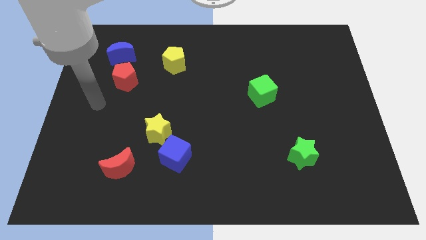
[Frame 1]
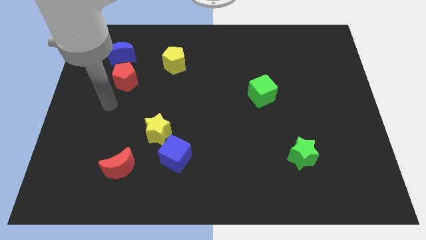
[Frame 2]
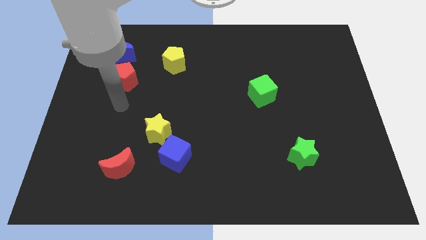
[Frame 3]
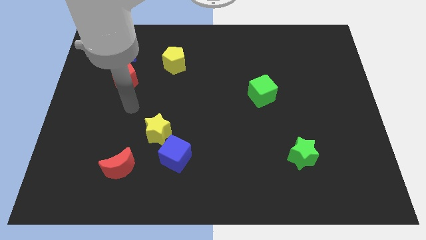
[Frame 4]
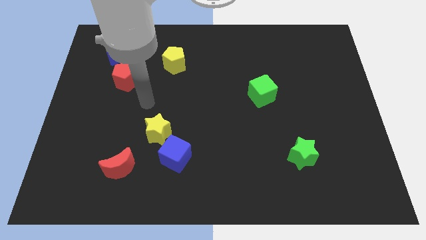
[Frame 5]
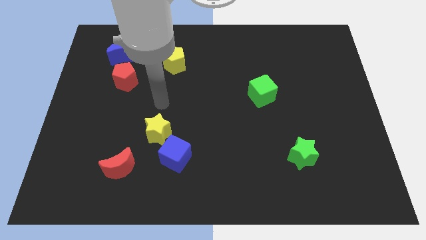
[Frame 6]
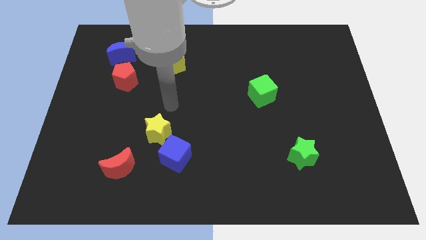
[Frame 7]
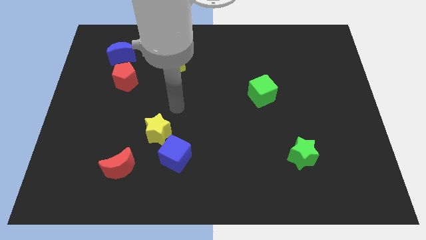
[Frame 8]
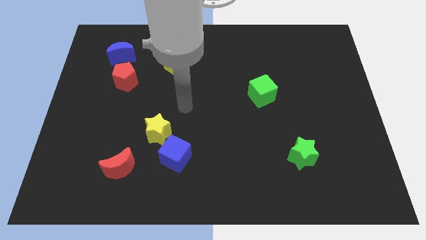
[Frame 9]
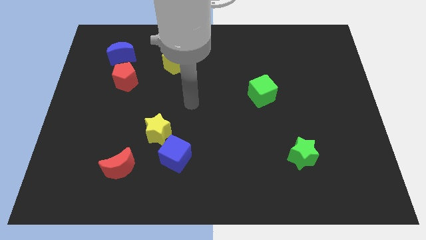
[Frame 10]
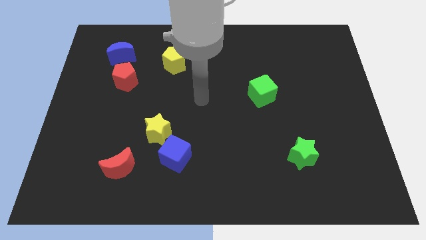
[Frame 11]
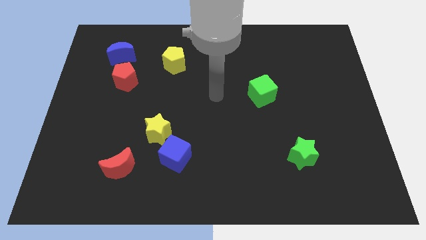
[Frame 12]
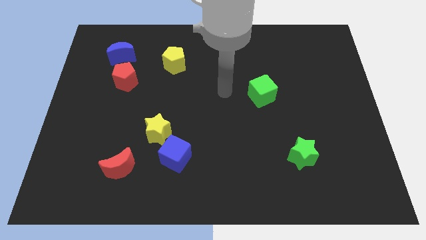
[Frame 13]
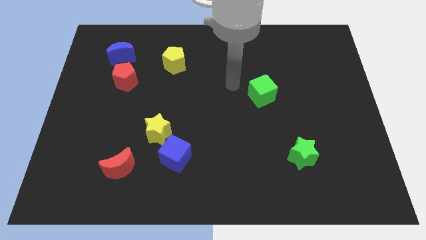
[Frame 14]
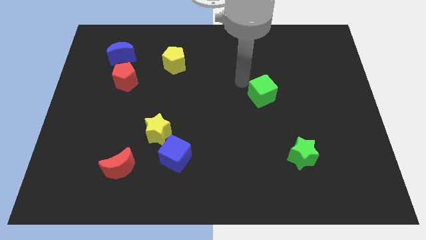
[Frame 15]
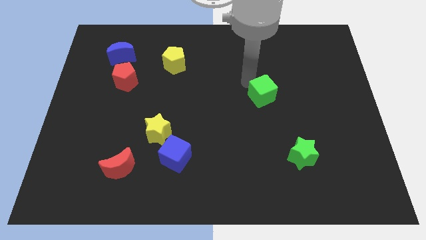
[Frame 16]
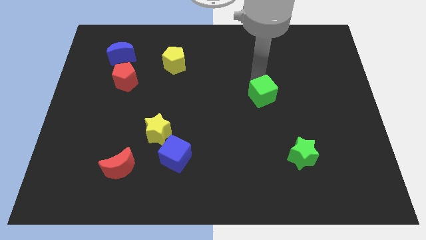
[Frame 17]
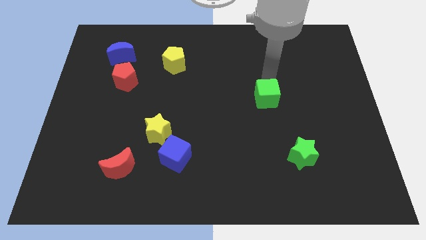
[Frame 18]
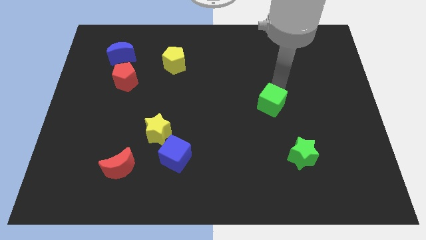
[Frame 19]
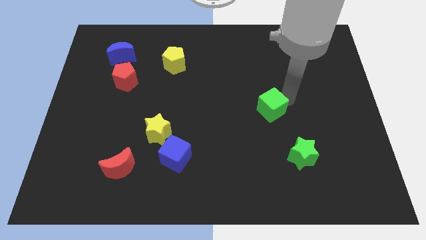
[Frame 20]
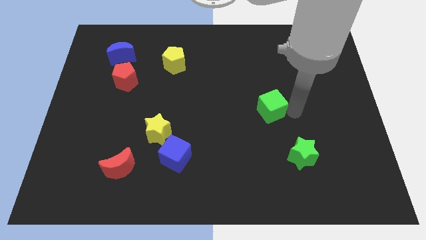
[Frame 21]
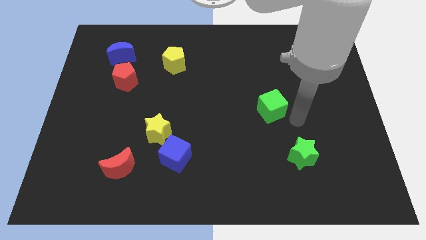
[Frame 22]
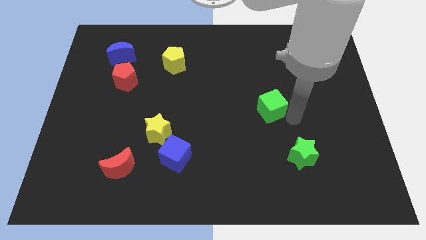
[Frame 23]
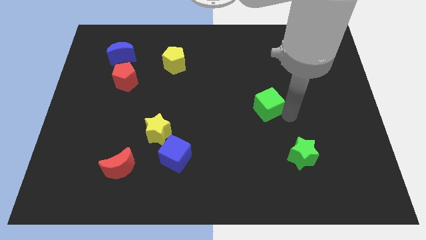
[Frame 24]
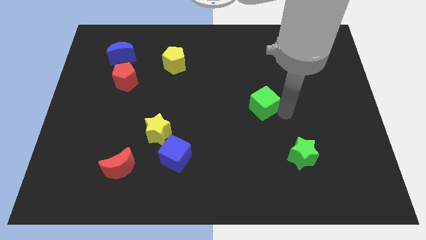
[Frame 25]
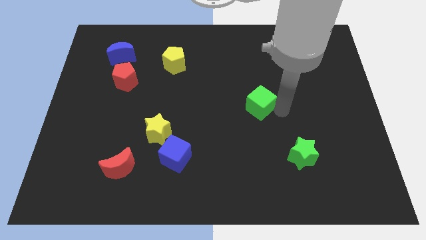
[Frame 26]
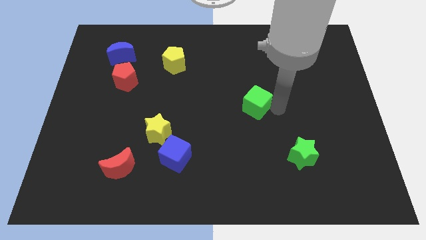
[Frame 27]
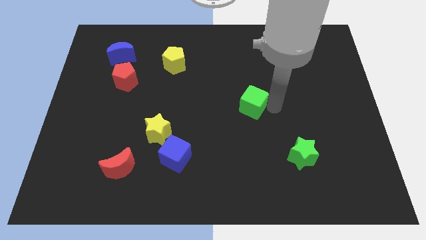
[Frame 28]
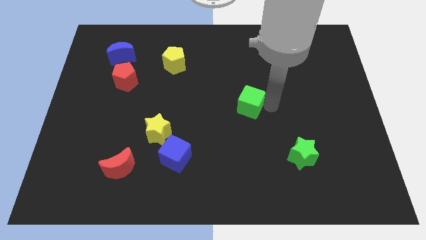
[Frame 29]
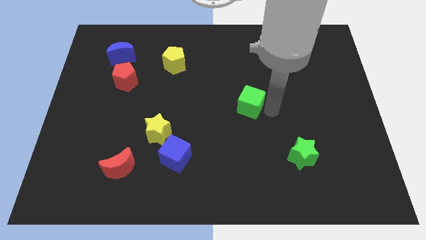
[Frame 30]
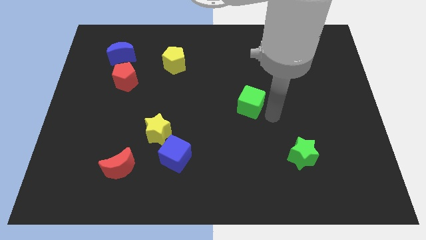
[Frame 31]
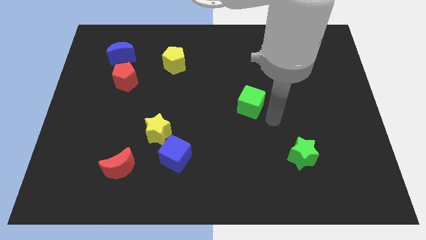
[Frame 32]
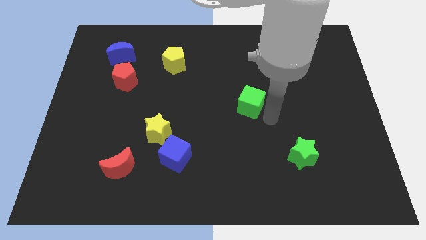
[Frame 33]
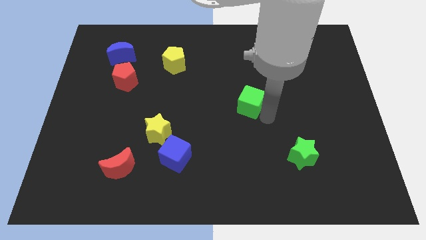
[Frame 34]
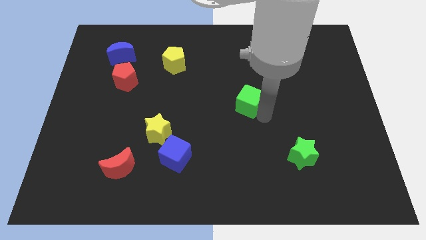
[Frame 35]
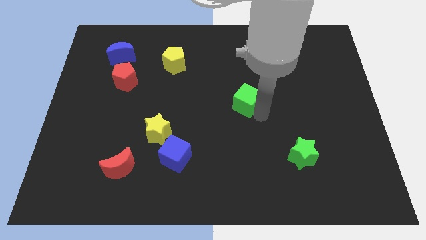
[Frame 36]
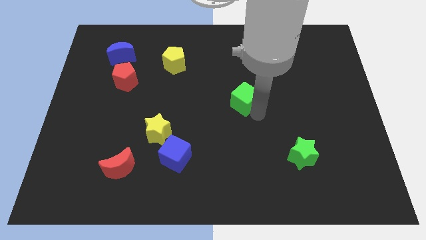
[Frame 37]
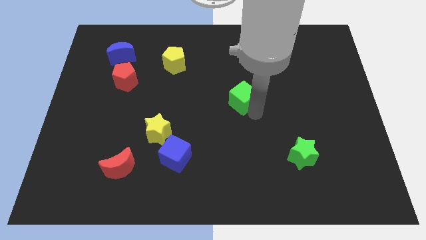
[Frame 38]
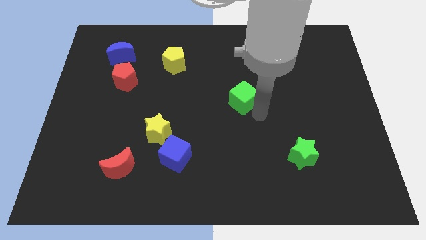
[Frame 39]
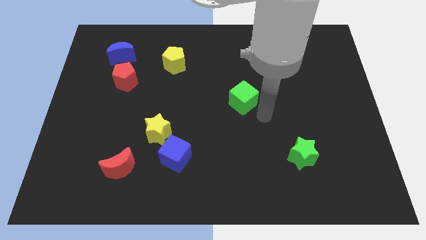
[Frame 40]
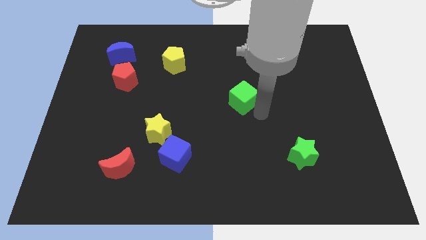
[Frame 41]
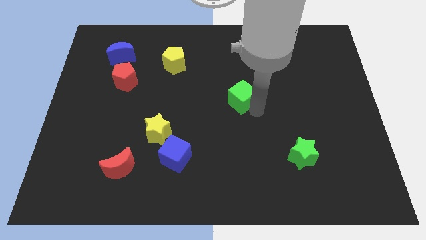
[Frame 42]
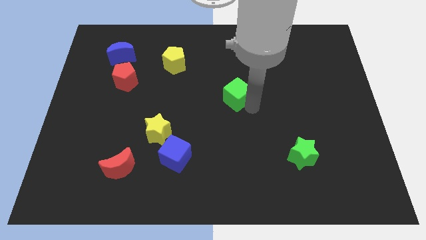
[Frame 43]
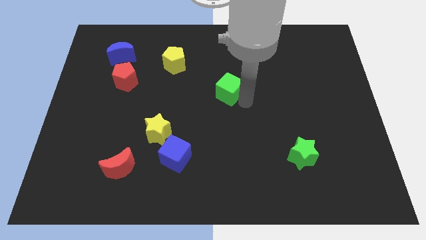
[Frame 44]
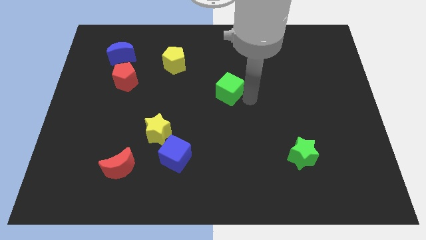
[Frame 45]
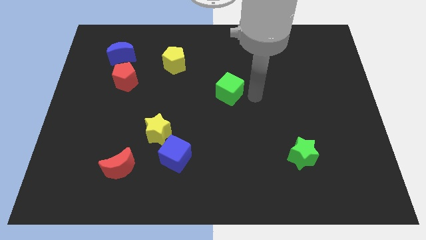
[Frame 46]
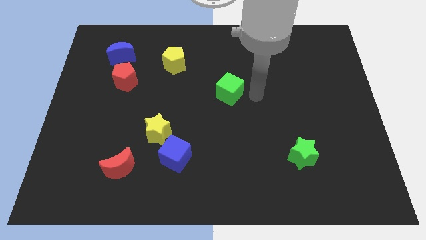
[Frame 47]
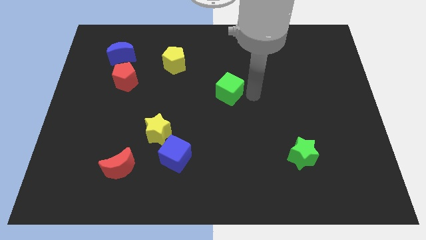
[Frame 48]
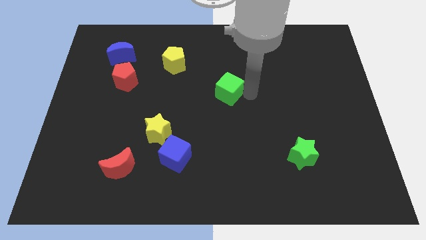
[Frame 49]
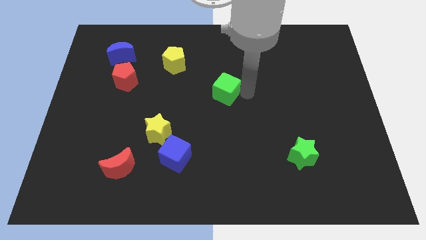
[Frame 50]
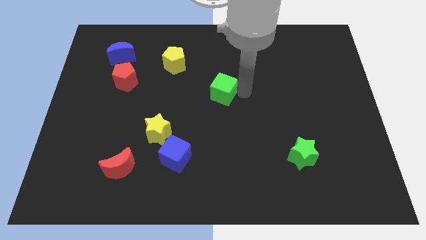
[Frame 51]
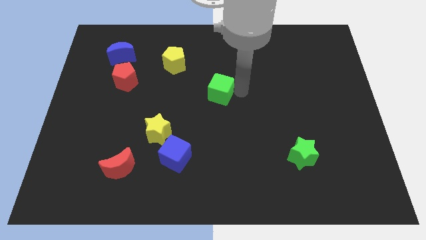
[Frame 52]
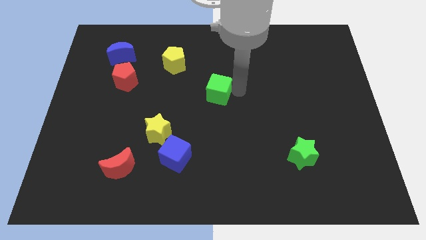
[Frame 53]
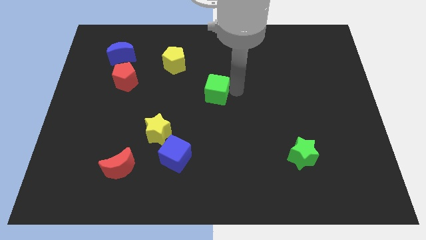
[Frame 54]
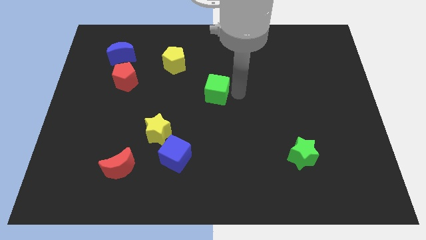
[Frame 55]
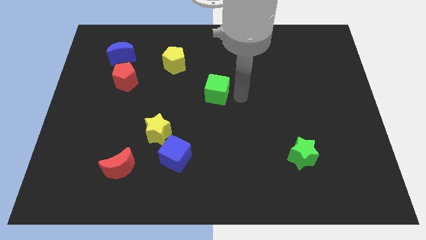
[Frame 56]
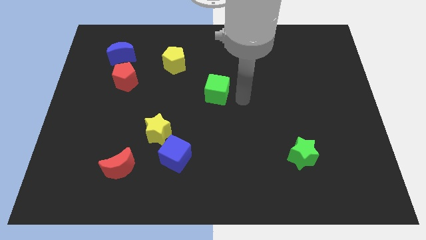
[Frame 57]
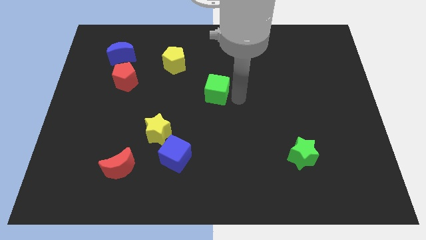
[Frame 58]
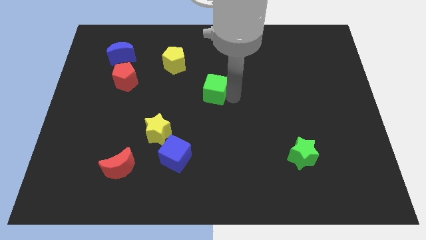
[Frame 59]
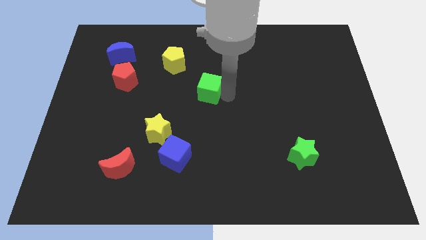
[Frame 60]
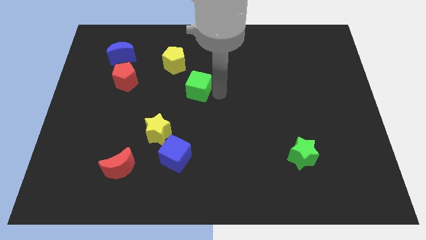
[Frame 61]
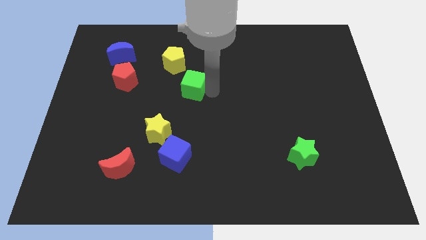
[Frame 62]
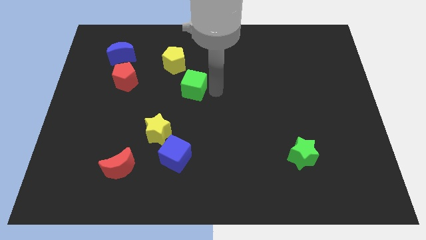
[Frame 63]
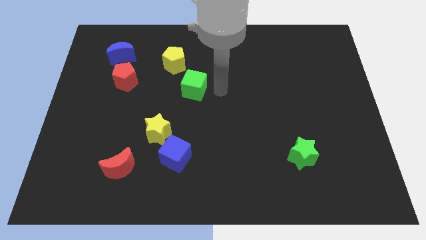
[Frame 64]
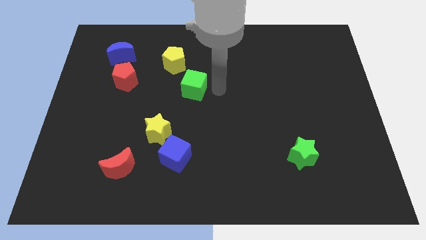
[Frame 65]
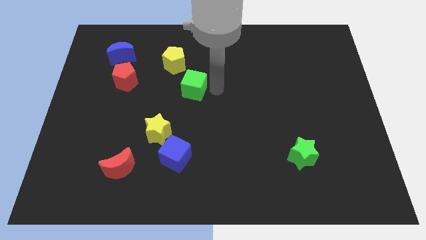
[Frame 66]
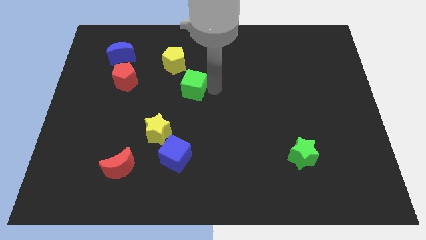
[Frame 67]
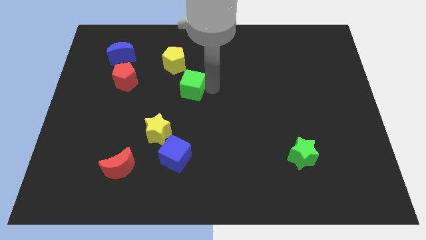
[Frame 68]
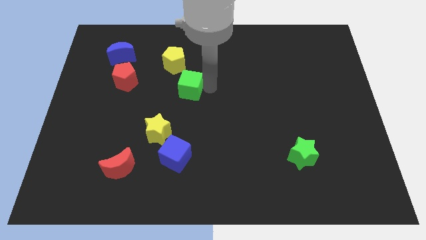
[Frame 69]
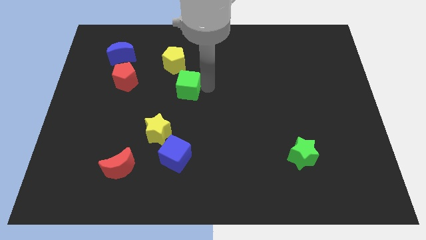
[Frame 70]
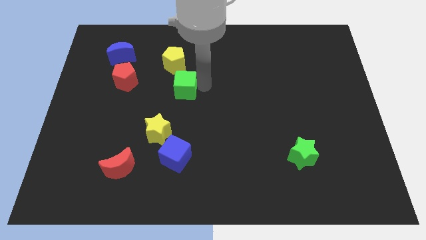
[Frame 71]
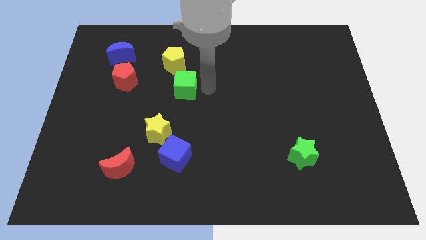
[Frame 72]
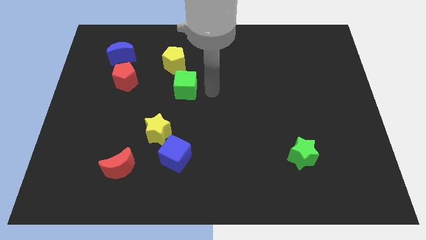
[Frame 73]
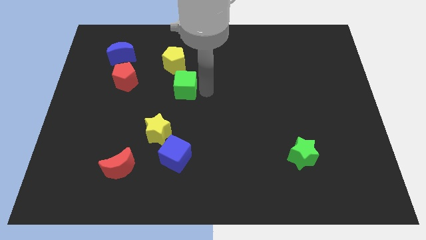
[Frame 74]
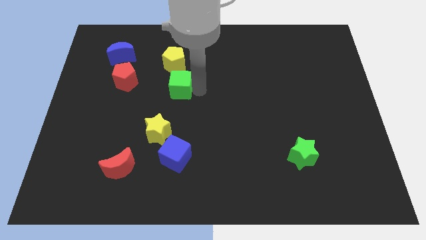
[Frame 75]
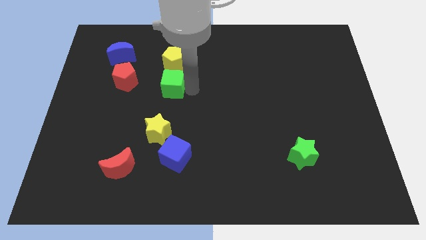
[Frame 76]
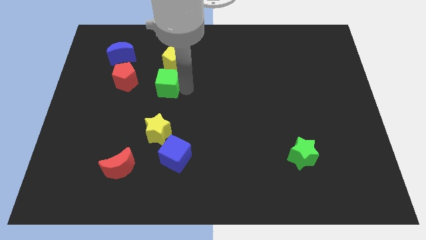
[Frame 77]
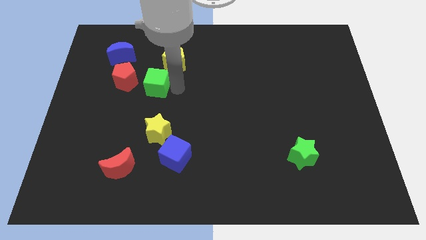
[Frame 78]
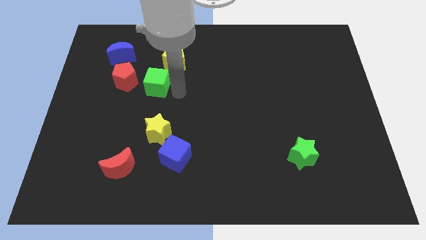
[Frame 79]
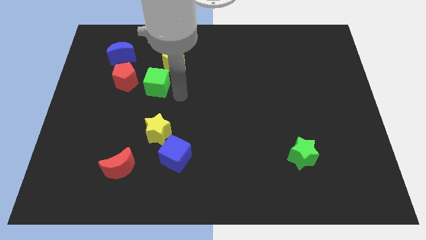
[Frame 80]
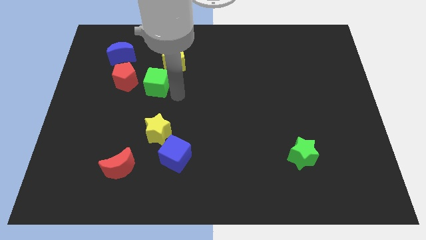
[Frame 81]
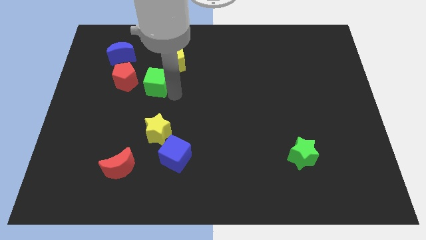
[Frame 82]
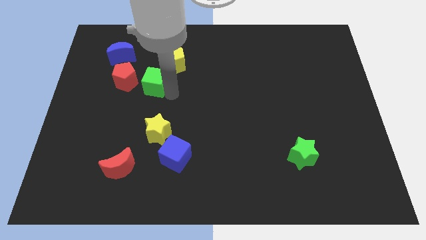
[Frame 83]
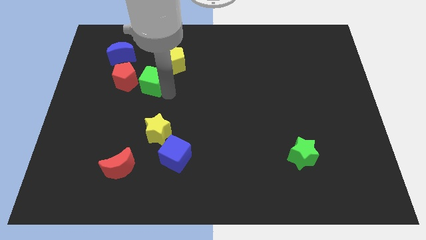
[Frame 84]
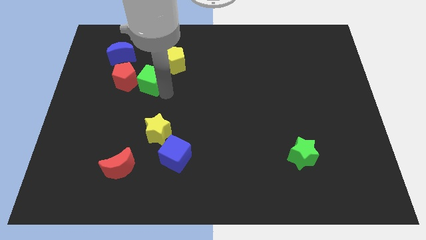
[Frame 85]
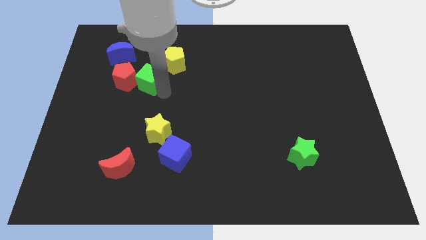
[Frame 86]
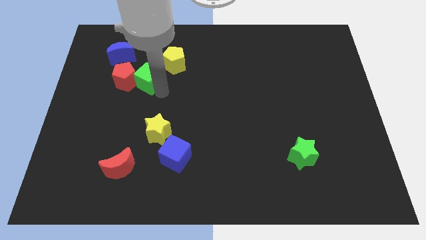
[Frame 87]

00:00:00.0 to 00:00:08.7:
push the green cube next to the red pentagon
